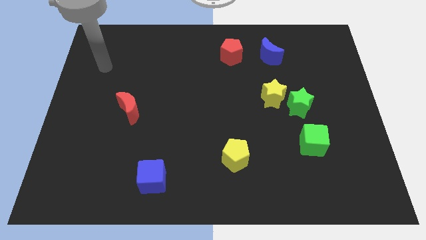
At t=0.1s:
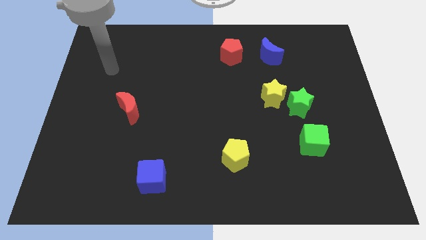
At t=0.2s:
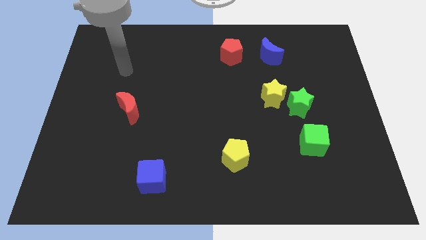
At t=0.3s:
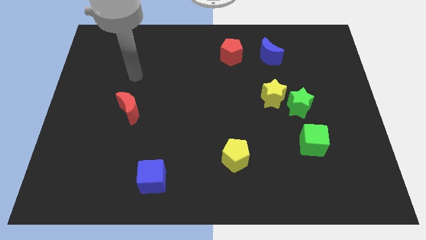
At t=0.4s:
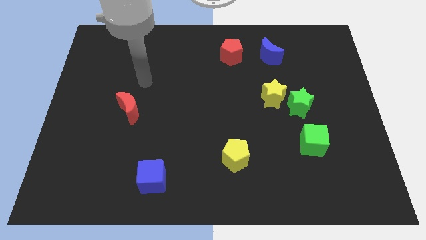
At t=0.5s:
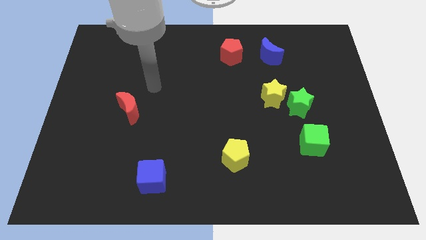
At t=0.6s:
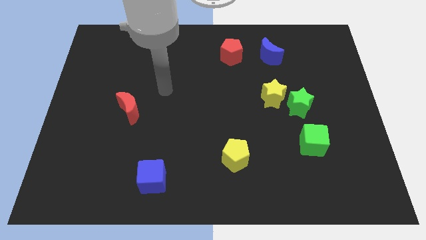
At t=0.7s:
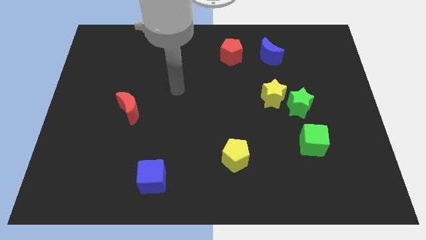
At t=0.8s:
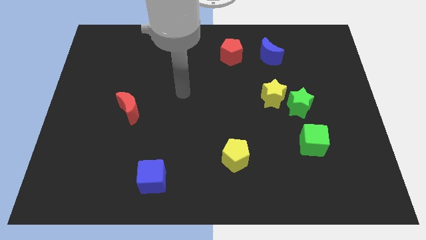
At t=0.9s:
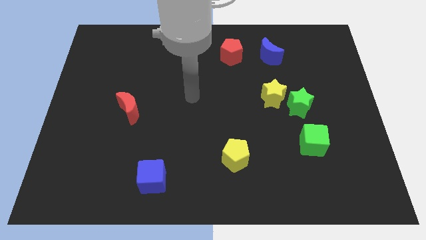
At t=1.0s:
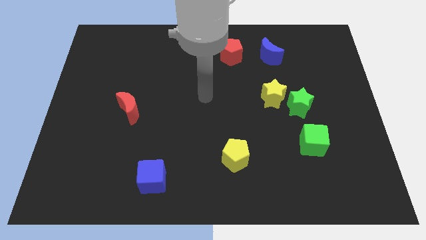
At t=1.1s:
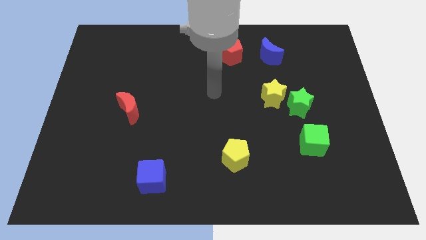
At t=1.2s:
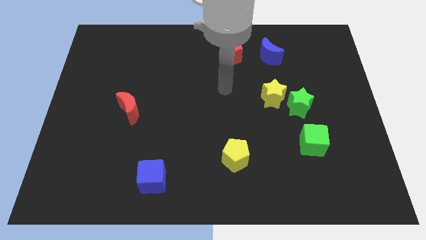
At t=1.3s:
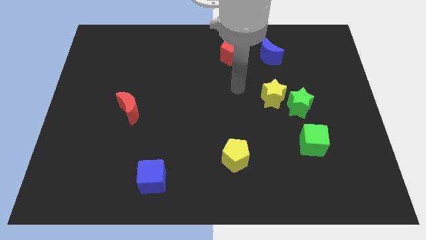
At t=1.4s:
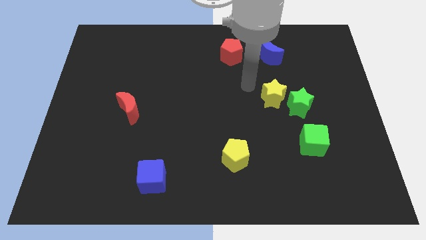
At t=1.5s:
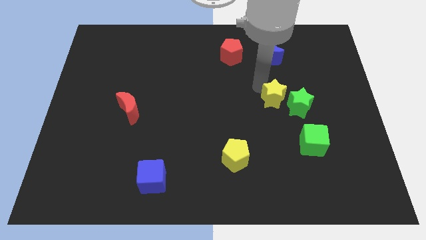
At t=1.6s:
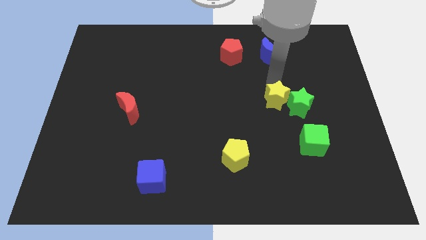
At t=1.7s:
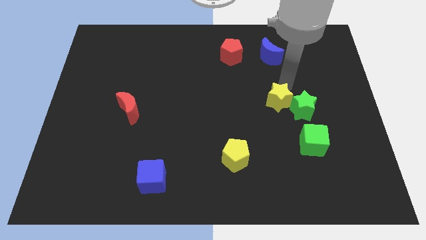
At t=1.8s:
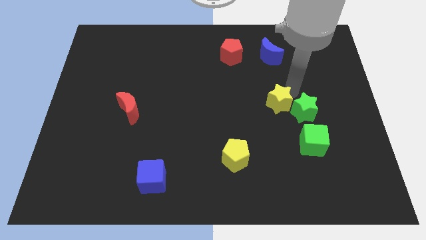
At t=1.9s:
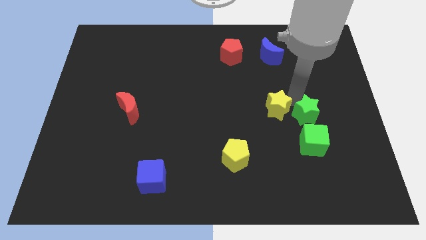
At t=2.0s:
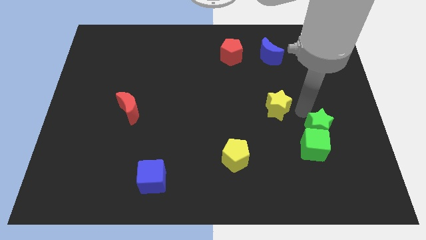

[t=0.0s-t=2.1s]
pull the yellow star apart from the green star

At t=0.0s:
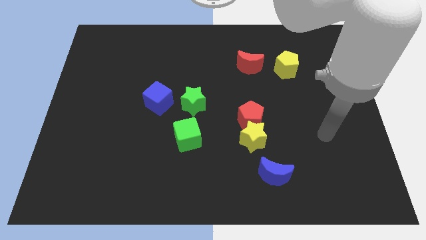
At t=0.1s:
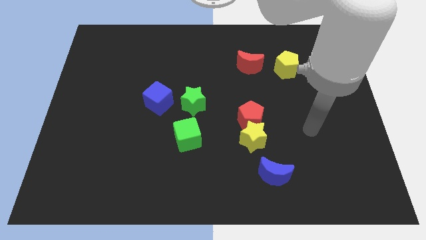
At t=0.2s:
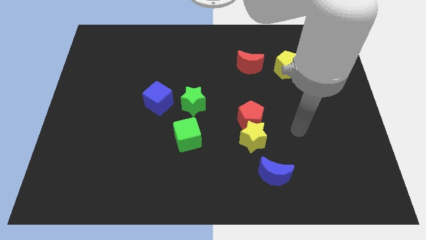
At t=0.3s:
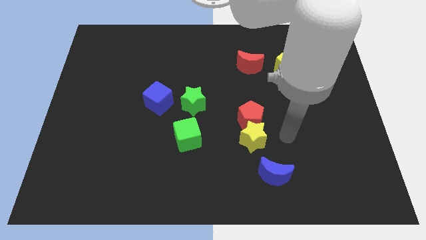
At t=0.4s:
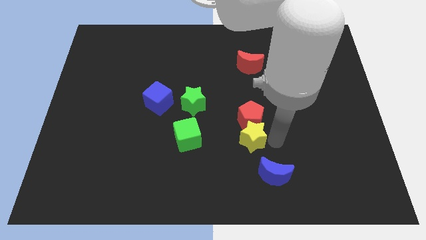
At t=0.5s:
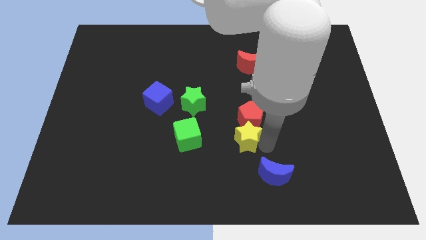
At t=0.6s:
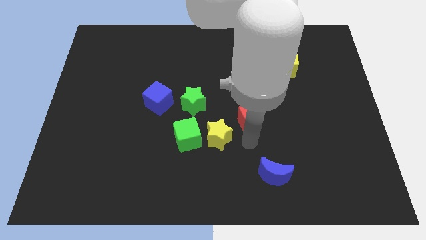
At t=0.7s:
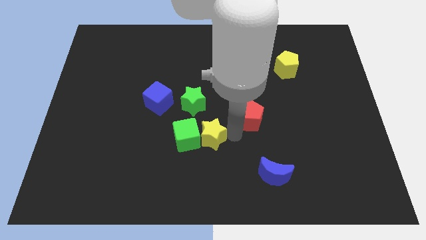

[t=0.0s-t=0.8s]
separate the red pentagon from the yellow star

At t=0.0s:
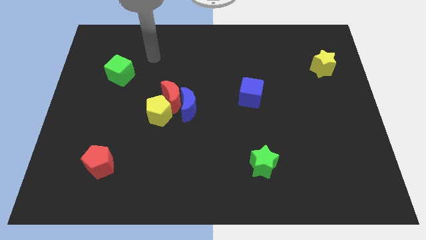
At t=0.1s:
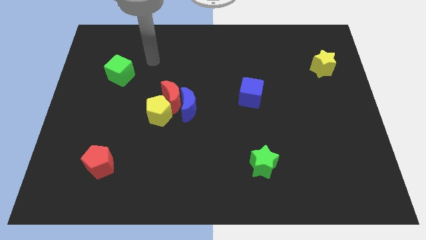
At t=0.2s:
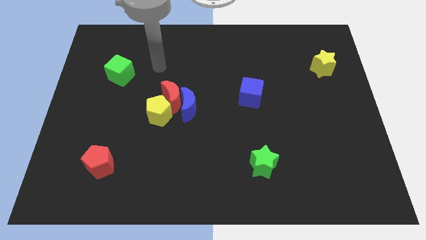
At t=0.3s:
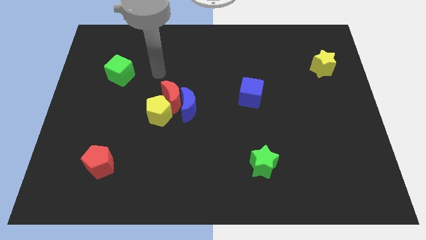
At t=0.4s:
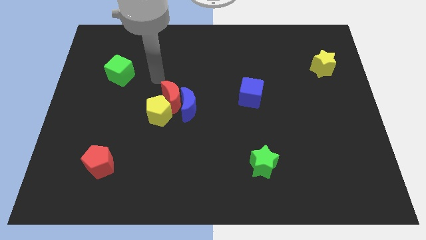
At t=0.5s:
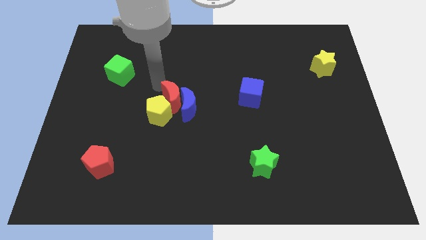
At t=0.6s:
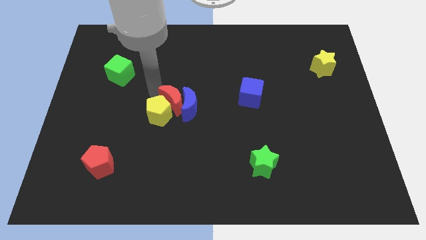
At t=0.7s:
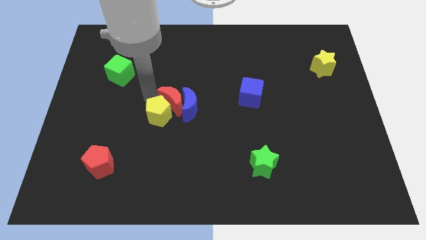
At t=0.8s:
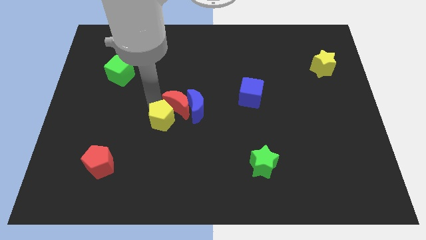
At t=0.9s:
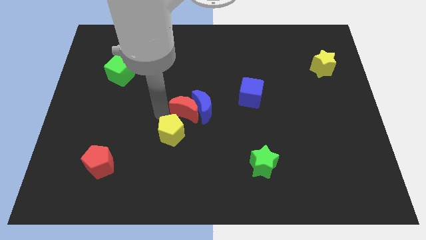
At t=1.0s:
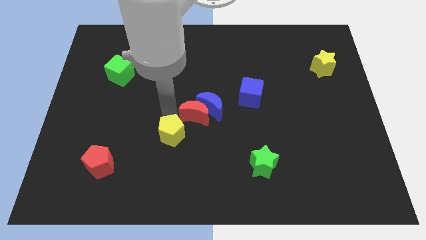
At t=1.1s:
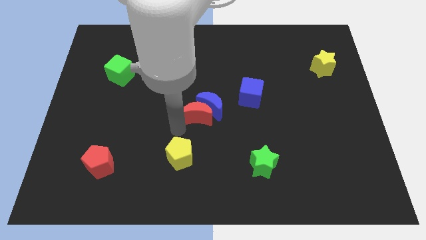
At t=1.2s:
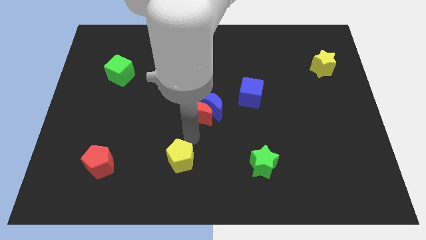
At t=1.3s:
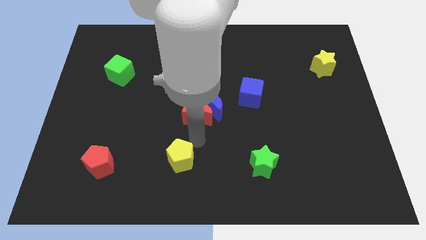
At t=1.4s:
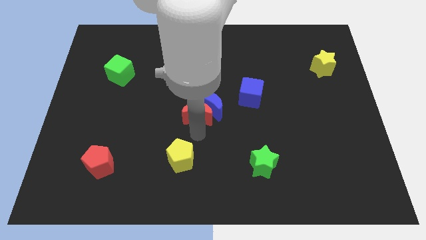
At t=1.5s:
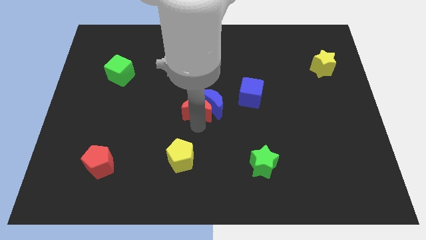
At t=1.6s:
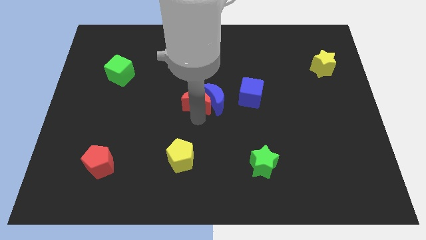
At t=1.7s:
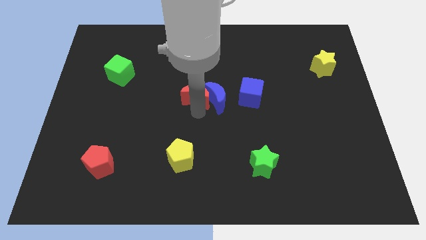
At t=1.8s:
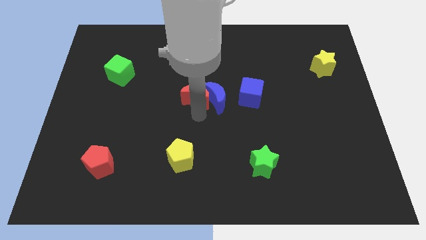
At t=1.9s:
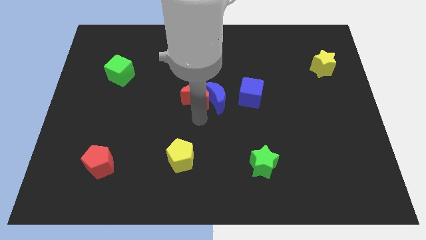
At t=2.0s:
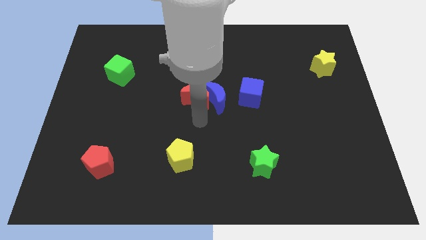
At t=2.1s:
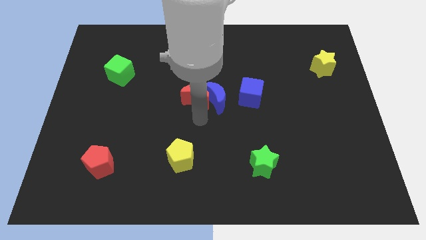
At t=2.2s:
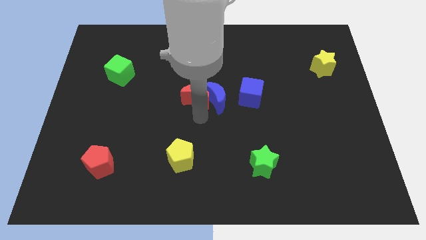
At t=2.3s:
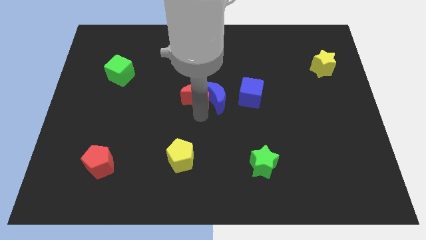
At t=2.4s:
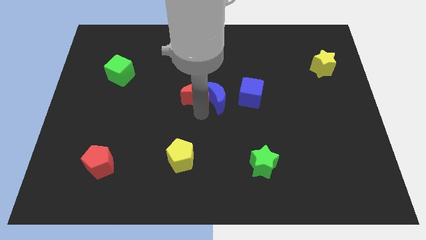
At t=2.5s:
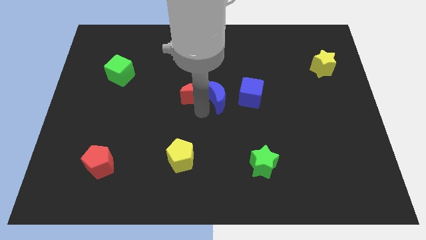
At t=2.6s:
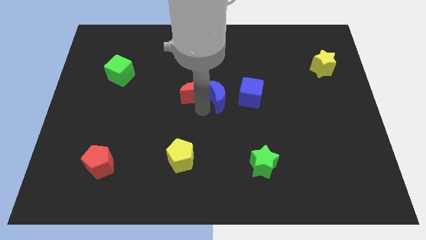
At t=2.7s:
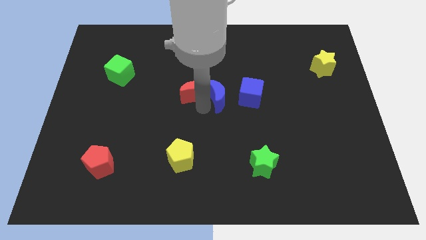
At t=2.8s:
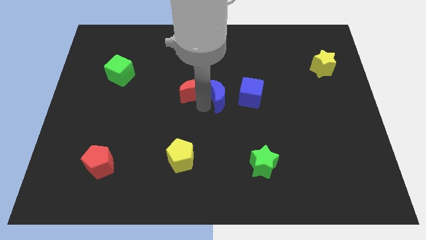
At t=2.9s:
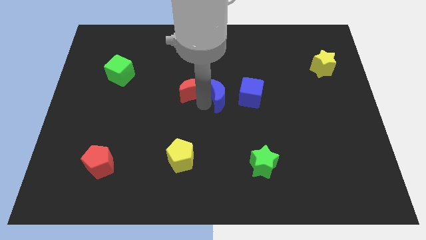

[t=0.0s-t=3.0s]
separate the red moon from the blue moon and yellow pentagon

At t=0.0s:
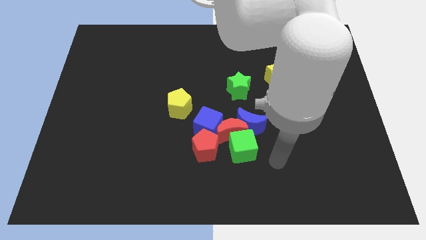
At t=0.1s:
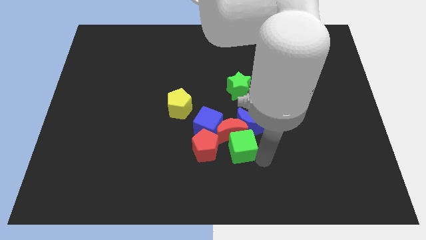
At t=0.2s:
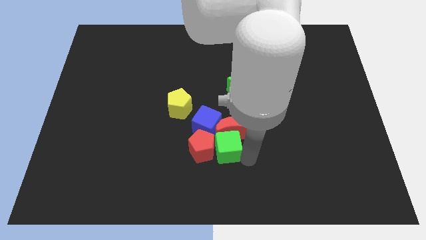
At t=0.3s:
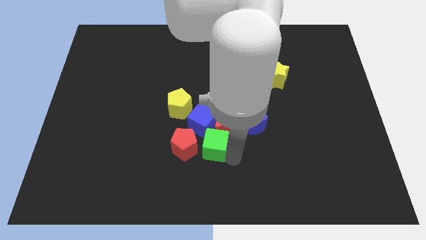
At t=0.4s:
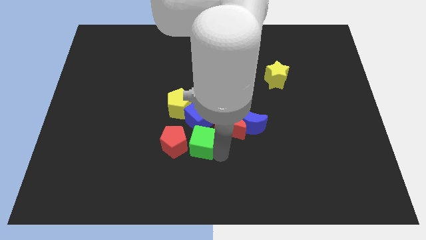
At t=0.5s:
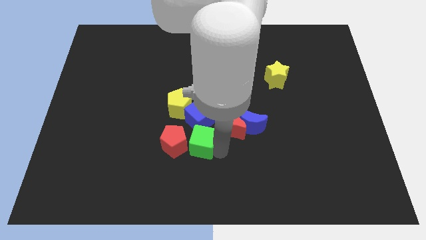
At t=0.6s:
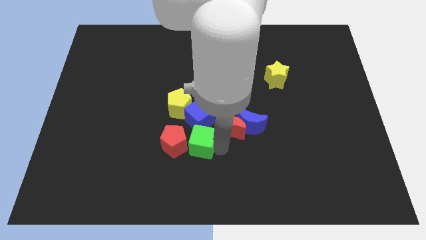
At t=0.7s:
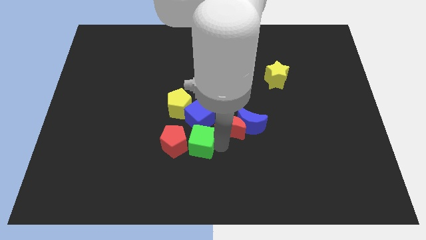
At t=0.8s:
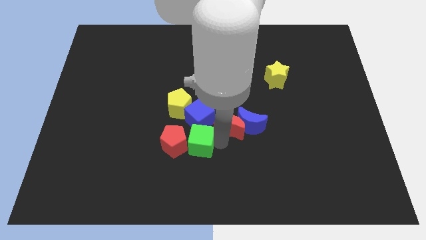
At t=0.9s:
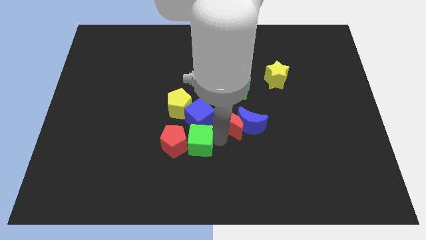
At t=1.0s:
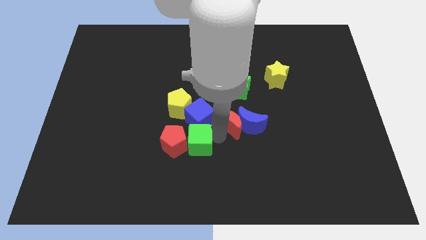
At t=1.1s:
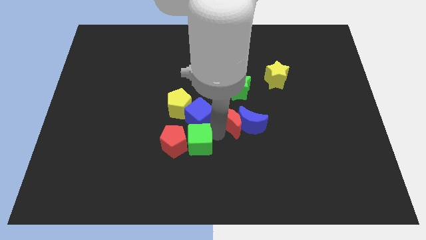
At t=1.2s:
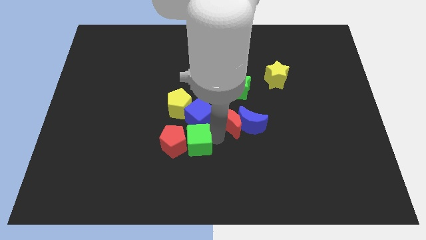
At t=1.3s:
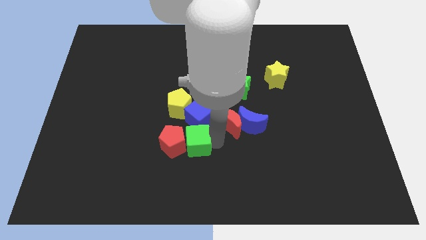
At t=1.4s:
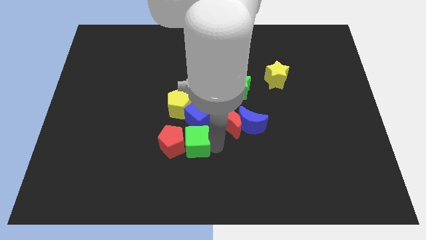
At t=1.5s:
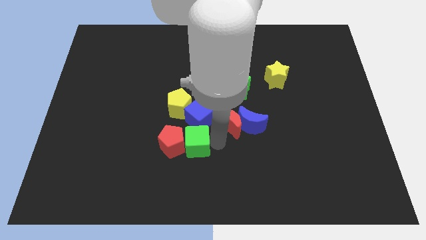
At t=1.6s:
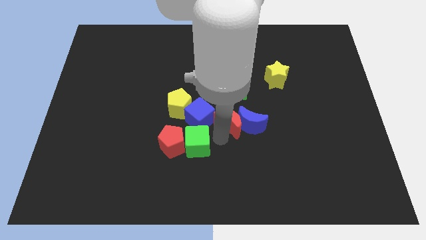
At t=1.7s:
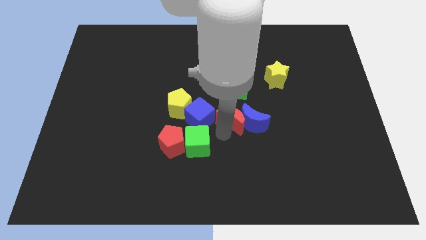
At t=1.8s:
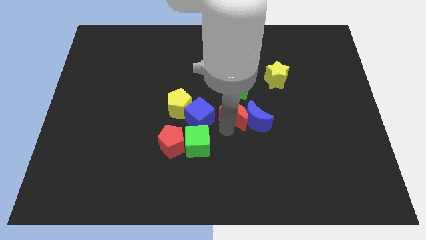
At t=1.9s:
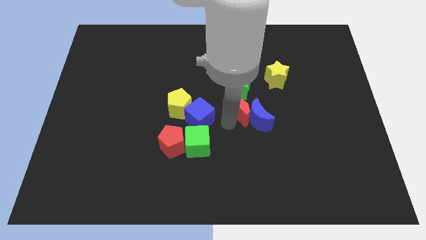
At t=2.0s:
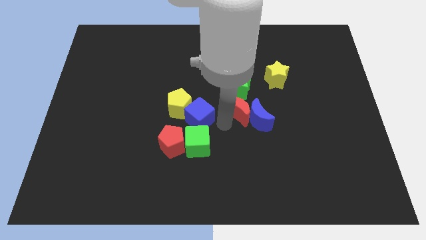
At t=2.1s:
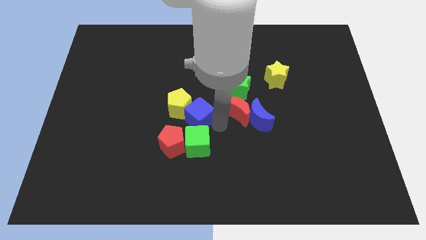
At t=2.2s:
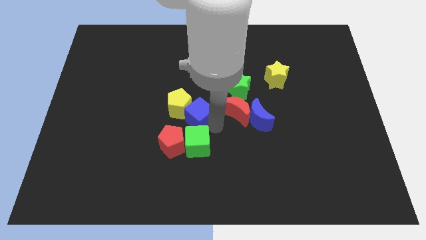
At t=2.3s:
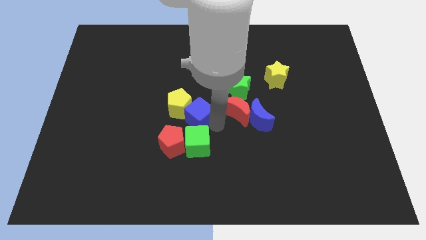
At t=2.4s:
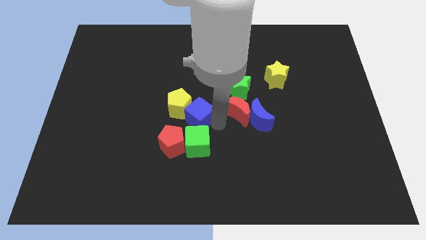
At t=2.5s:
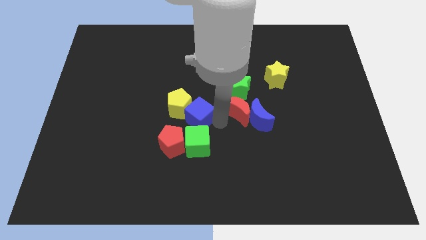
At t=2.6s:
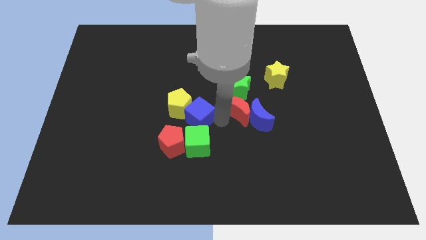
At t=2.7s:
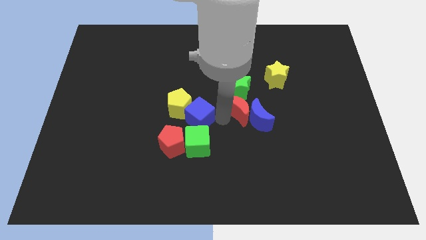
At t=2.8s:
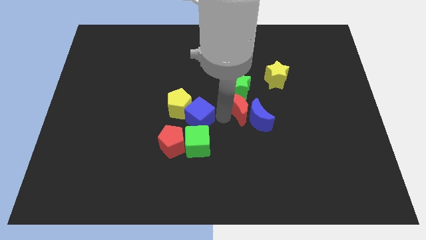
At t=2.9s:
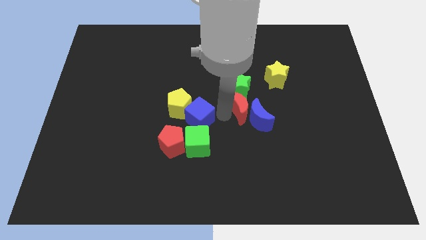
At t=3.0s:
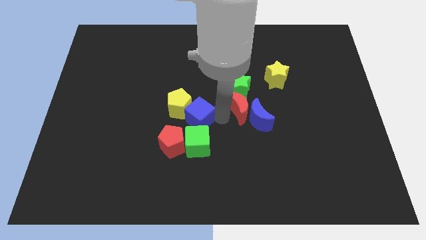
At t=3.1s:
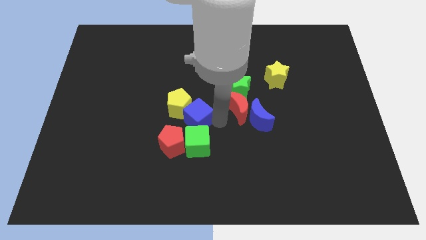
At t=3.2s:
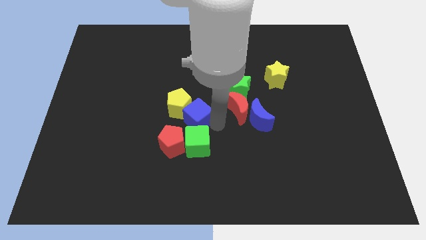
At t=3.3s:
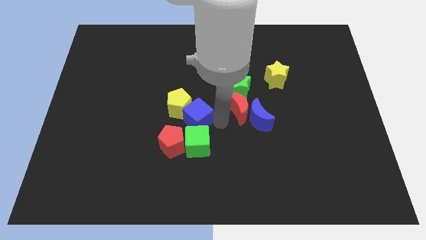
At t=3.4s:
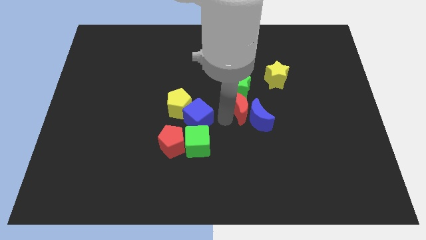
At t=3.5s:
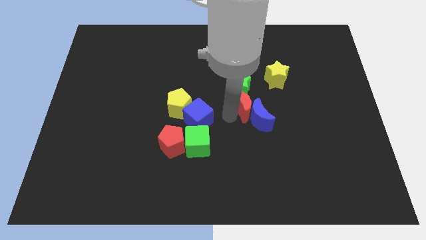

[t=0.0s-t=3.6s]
separate the red moon from the group
